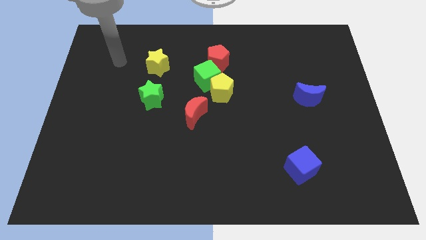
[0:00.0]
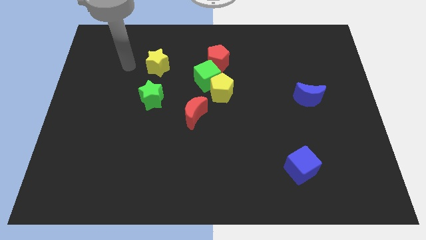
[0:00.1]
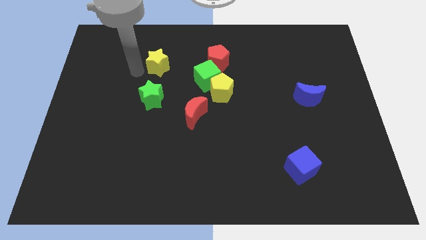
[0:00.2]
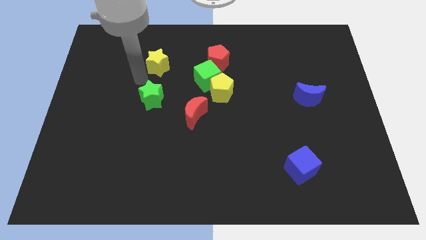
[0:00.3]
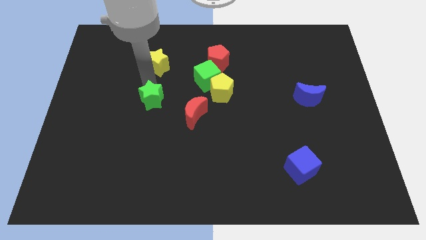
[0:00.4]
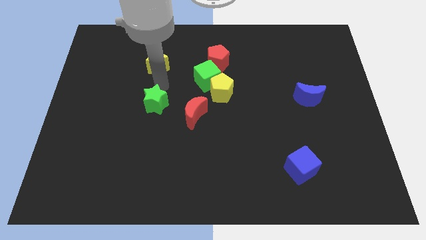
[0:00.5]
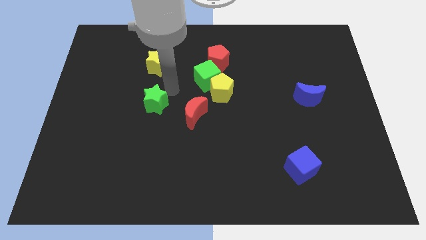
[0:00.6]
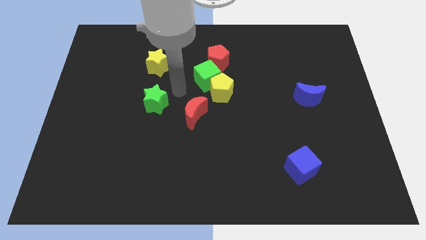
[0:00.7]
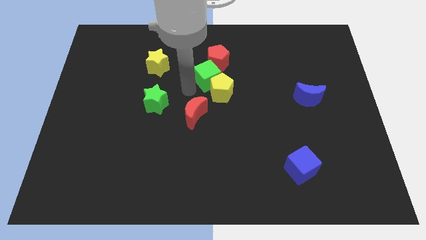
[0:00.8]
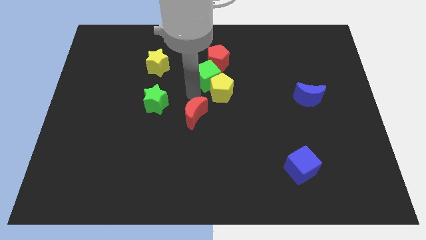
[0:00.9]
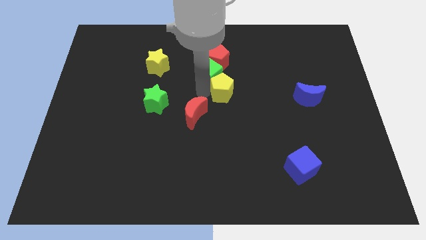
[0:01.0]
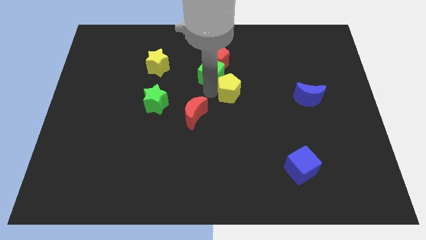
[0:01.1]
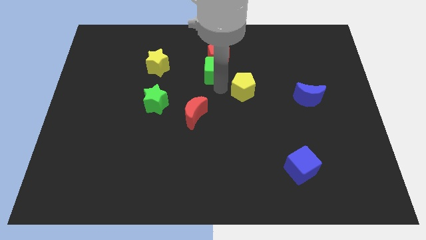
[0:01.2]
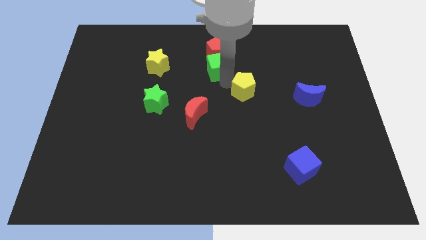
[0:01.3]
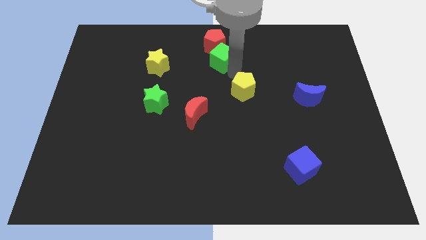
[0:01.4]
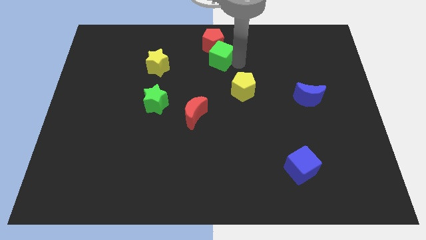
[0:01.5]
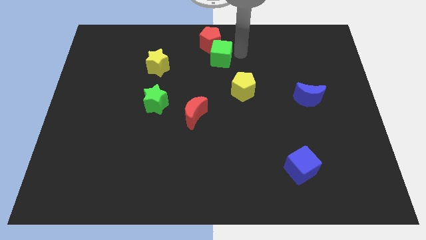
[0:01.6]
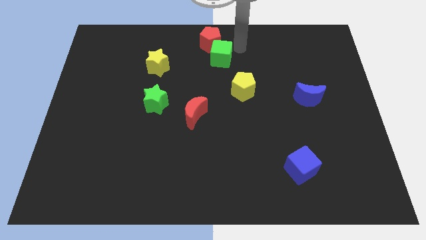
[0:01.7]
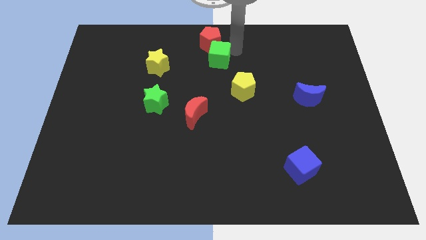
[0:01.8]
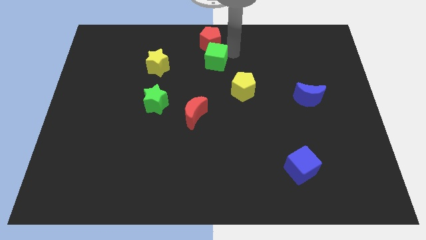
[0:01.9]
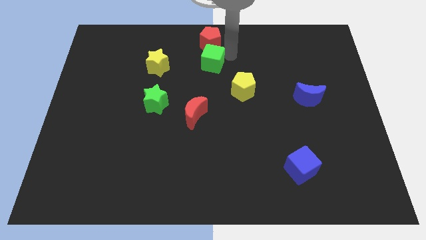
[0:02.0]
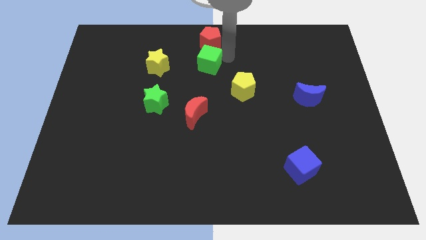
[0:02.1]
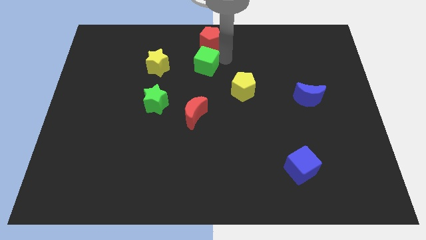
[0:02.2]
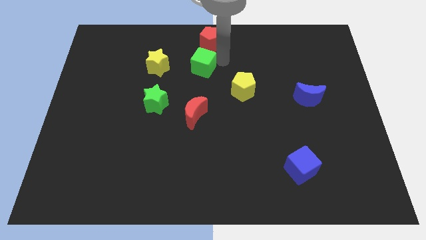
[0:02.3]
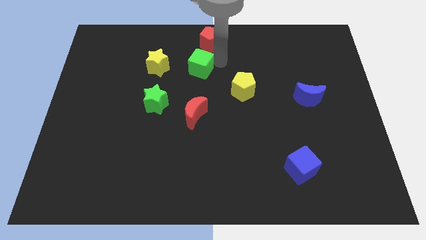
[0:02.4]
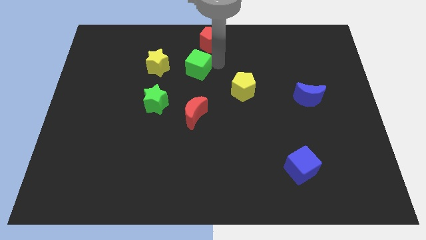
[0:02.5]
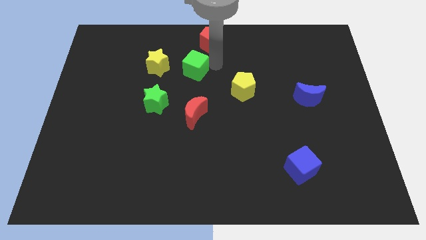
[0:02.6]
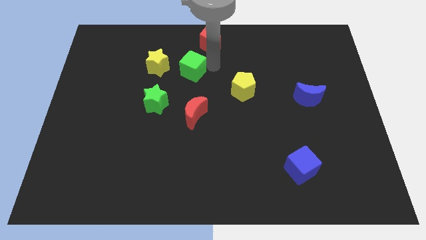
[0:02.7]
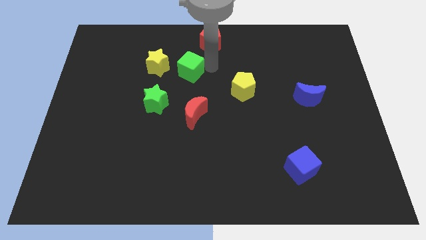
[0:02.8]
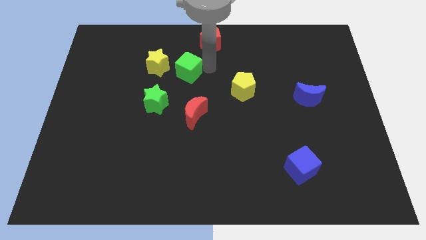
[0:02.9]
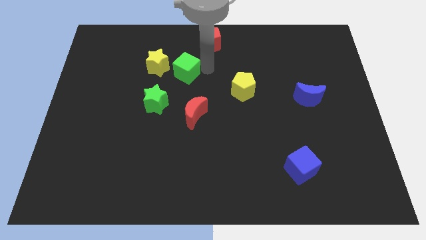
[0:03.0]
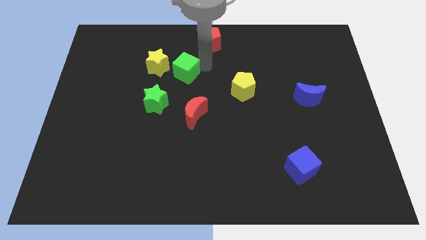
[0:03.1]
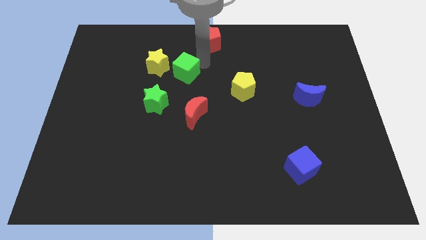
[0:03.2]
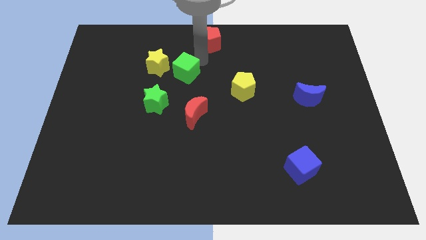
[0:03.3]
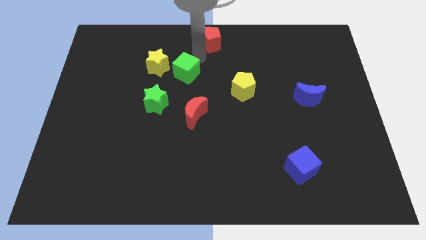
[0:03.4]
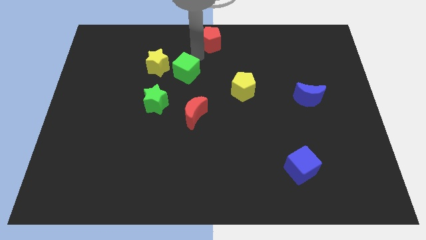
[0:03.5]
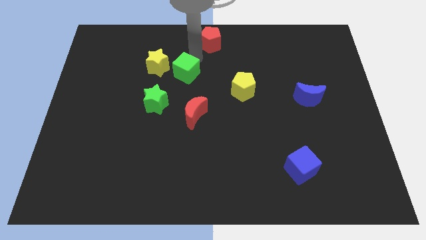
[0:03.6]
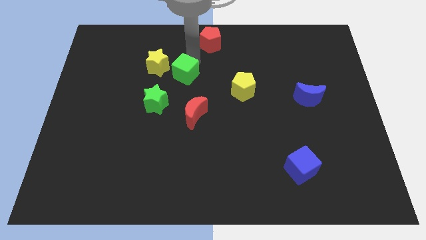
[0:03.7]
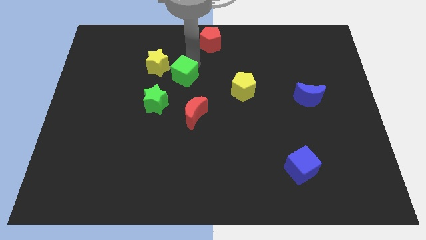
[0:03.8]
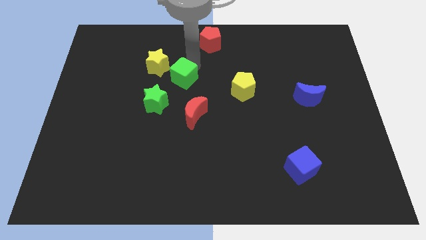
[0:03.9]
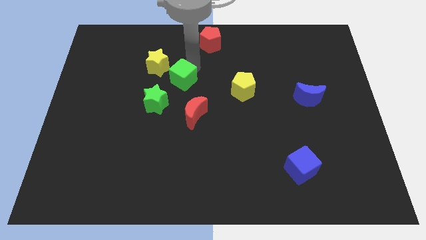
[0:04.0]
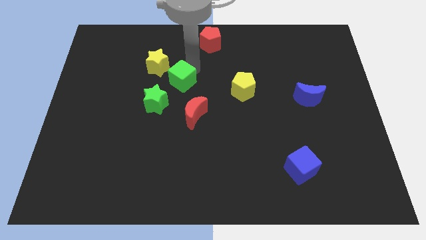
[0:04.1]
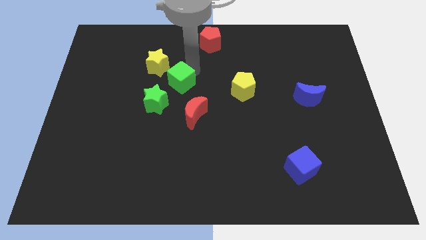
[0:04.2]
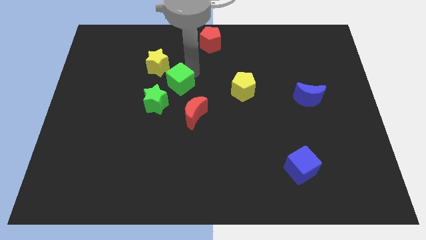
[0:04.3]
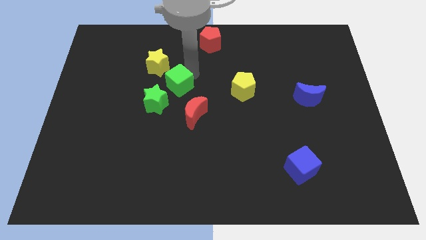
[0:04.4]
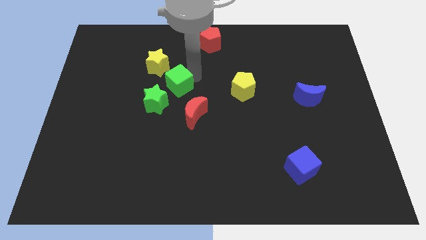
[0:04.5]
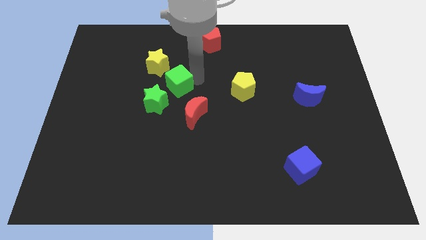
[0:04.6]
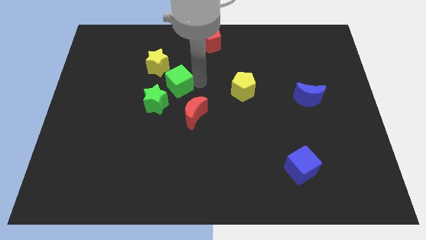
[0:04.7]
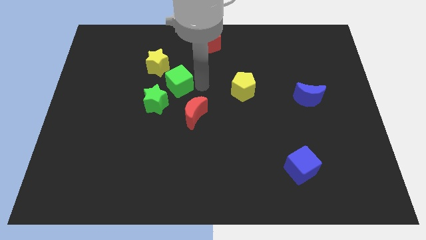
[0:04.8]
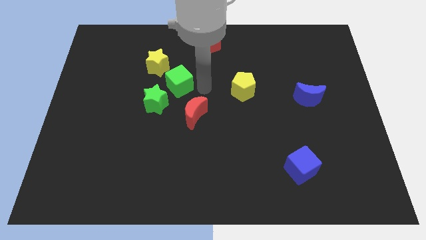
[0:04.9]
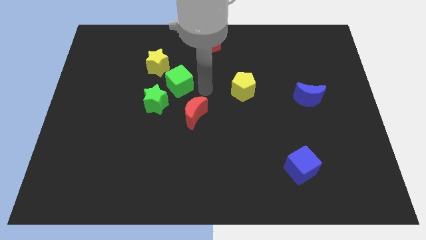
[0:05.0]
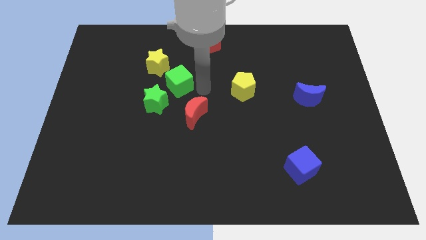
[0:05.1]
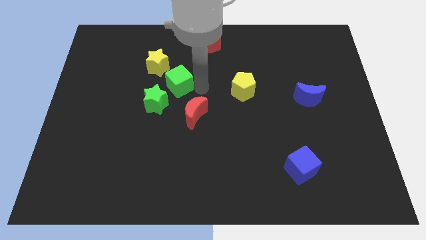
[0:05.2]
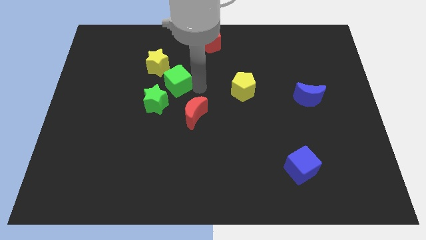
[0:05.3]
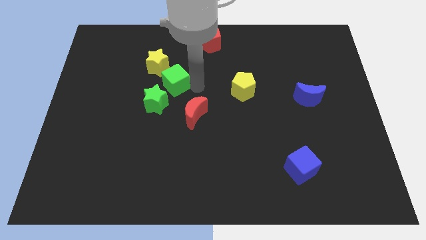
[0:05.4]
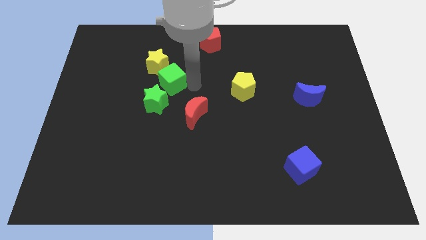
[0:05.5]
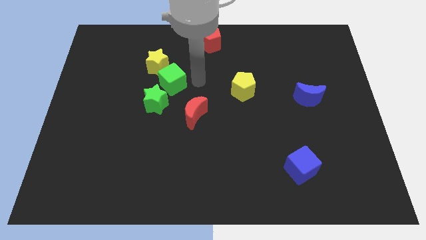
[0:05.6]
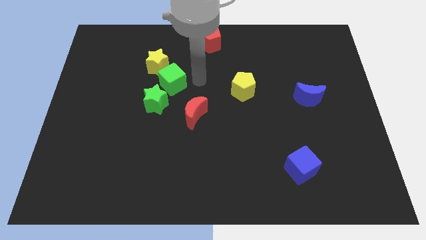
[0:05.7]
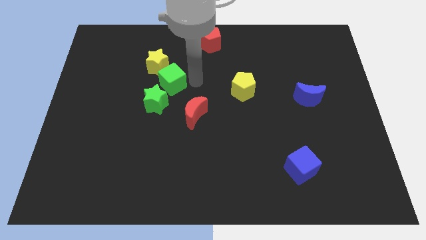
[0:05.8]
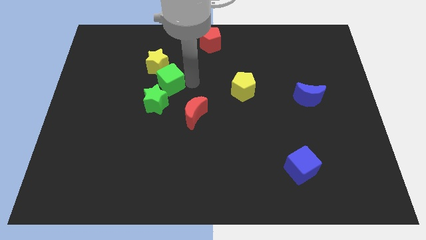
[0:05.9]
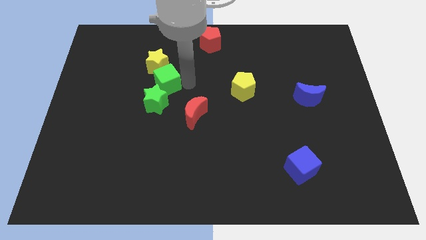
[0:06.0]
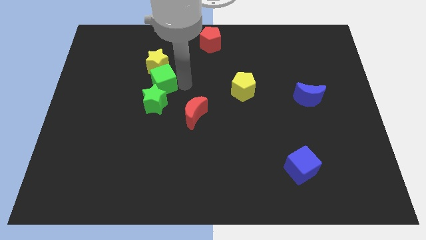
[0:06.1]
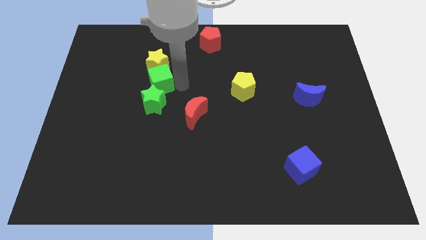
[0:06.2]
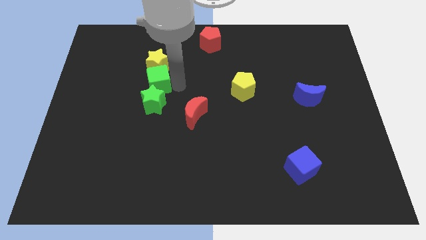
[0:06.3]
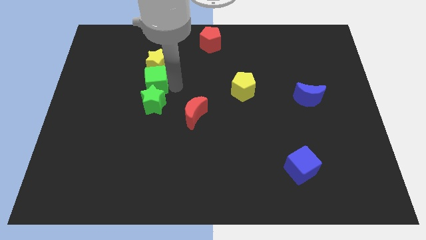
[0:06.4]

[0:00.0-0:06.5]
move the green cube diagonally up and to the left of the green star

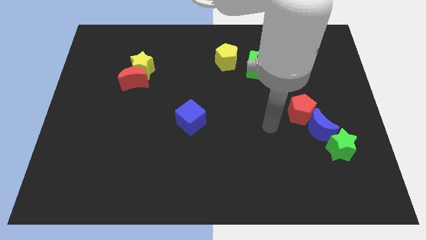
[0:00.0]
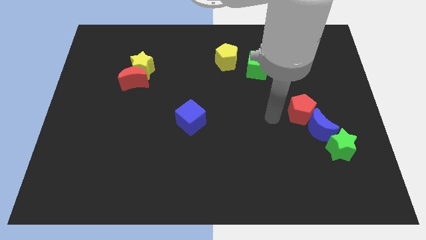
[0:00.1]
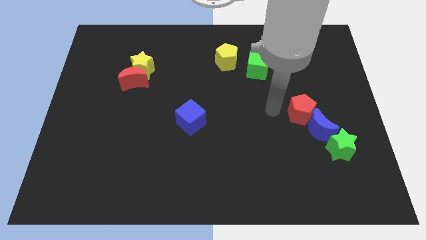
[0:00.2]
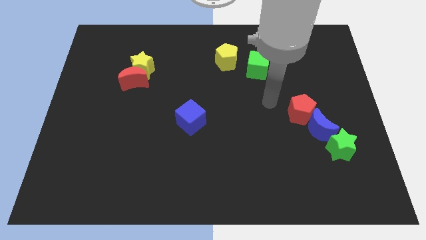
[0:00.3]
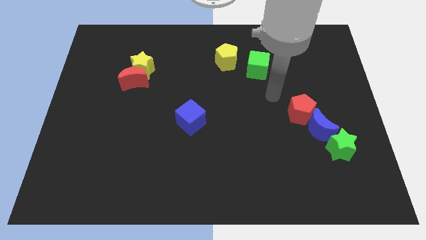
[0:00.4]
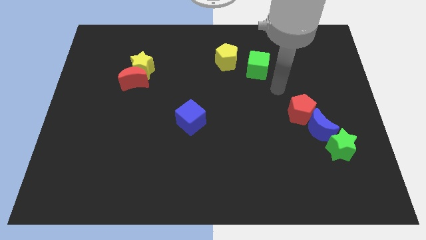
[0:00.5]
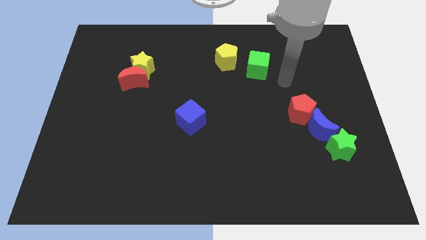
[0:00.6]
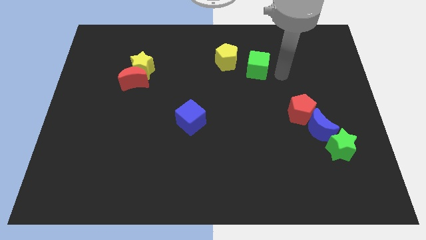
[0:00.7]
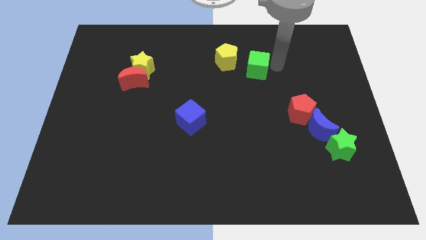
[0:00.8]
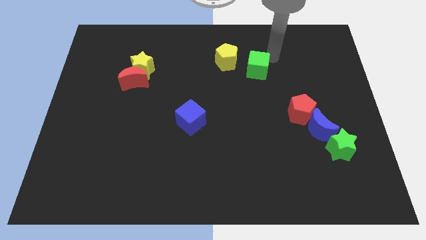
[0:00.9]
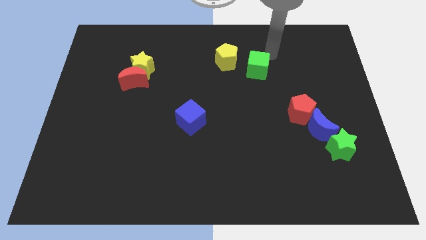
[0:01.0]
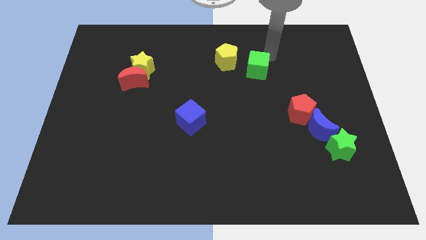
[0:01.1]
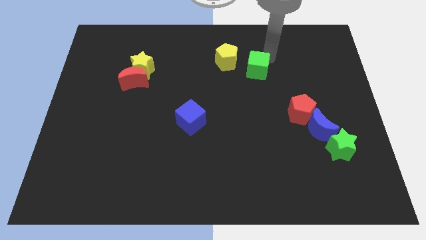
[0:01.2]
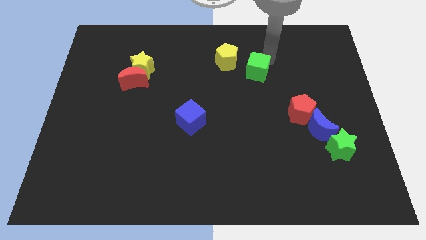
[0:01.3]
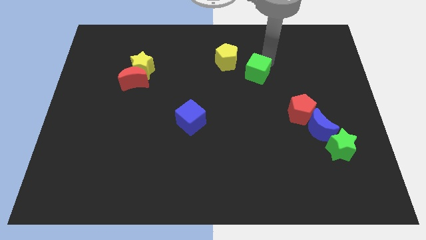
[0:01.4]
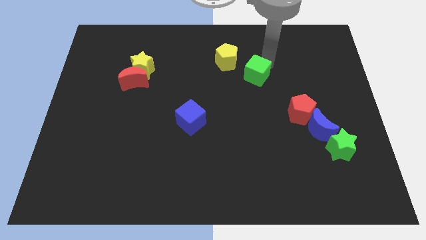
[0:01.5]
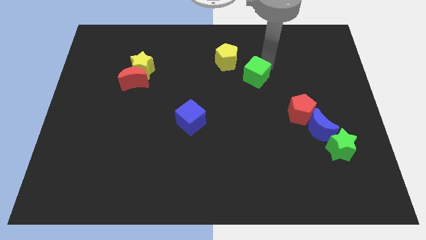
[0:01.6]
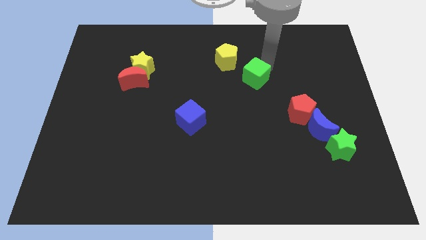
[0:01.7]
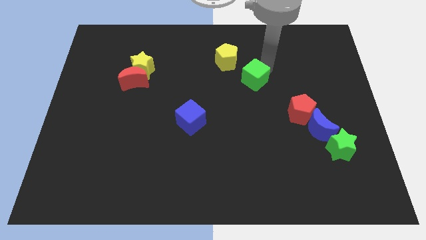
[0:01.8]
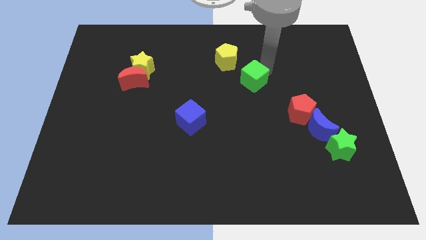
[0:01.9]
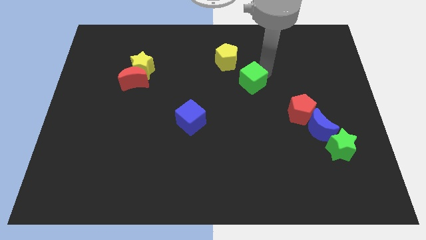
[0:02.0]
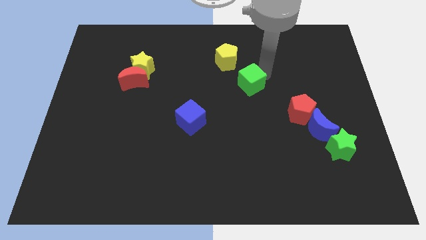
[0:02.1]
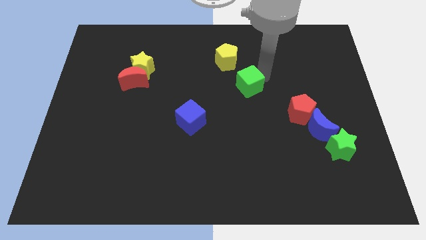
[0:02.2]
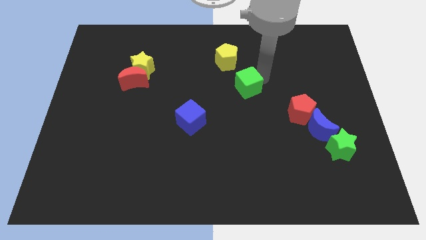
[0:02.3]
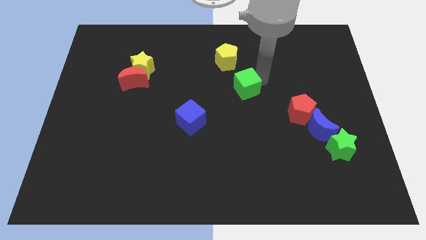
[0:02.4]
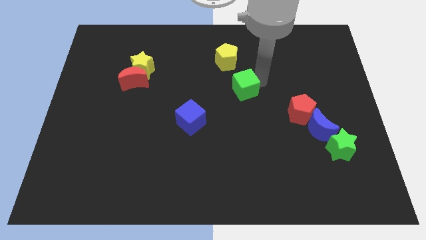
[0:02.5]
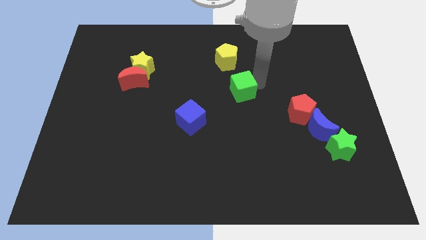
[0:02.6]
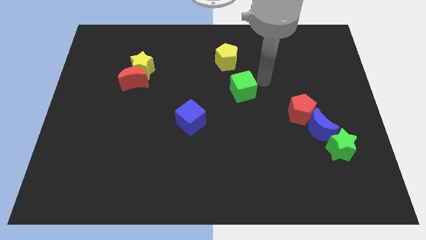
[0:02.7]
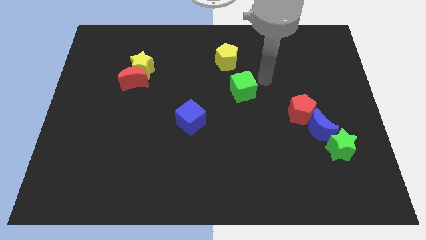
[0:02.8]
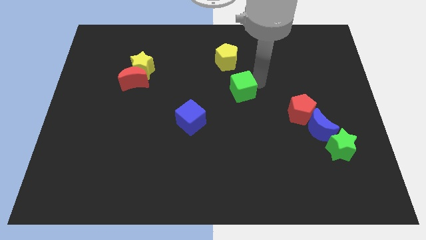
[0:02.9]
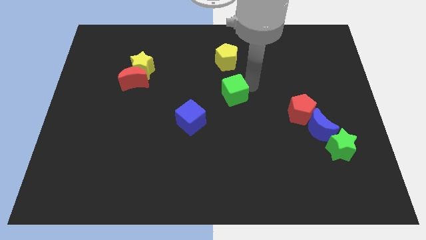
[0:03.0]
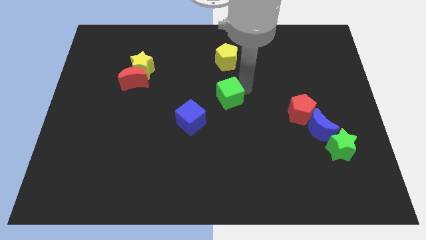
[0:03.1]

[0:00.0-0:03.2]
move the green cube to the top right of the blue cube
